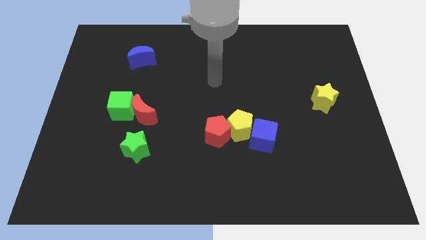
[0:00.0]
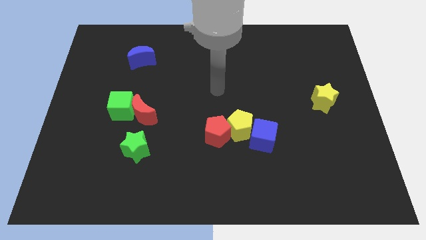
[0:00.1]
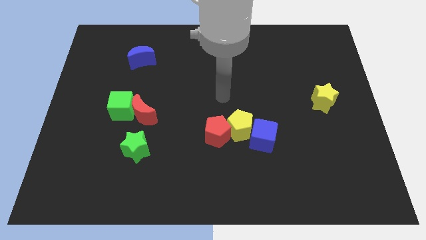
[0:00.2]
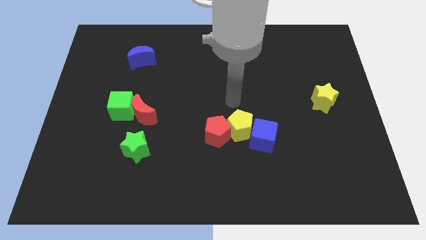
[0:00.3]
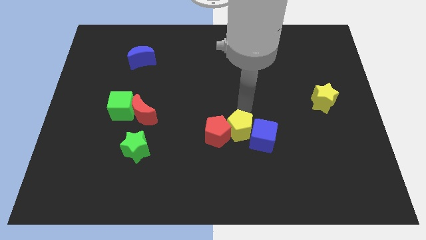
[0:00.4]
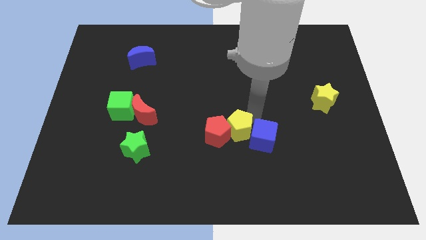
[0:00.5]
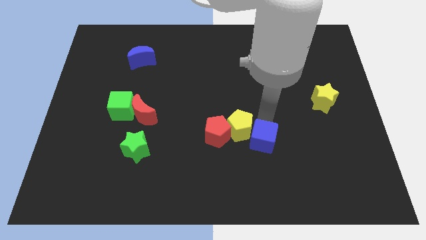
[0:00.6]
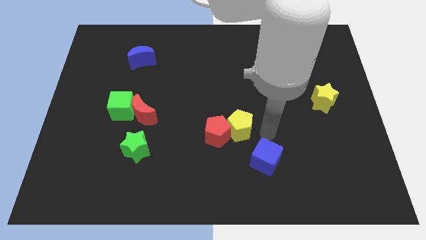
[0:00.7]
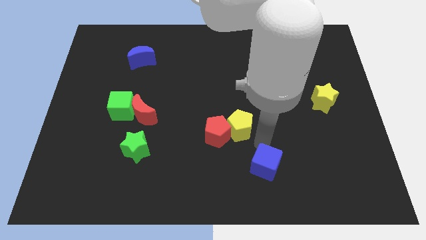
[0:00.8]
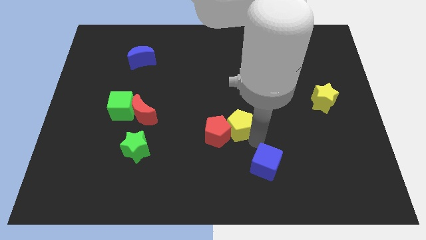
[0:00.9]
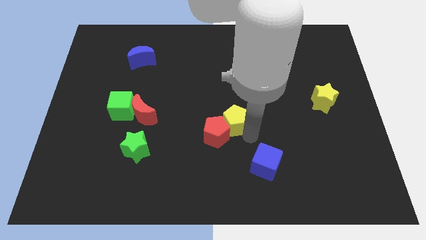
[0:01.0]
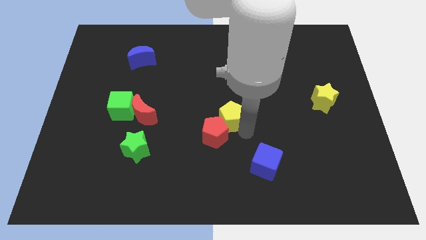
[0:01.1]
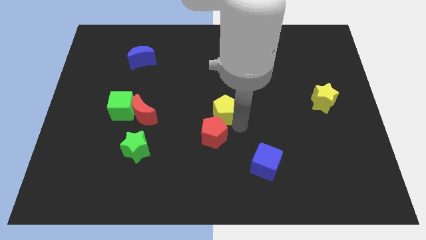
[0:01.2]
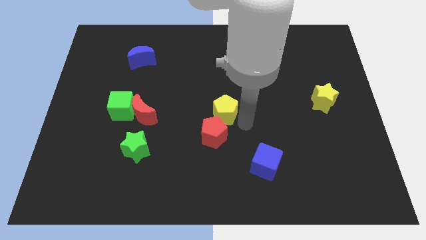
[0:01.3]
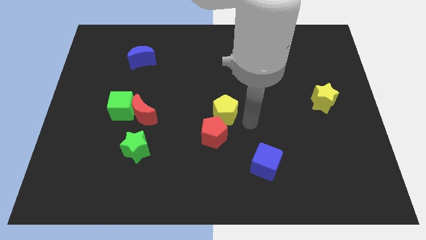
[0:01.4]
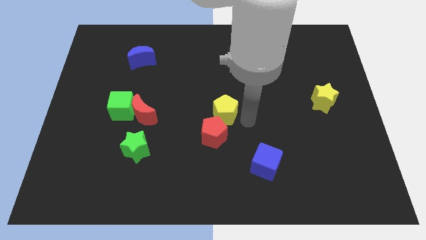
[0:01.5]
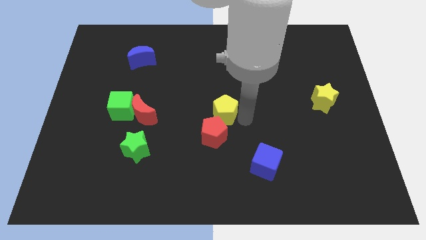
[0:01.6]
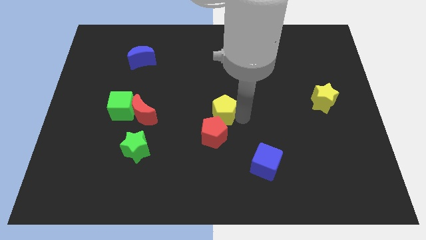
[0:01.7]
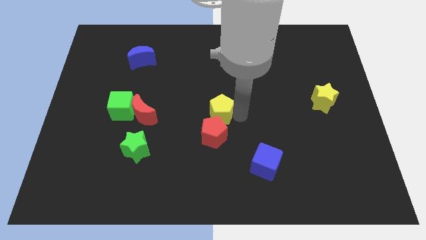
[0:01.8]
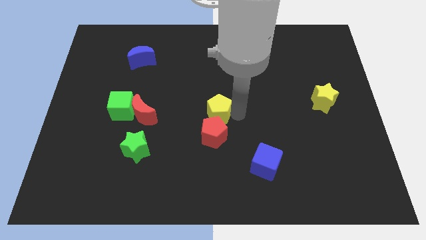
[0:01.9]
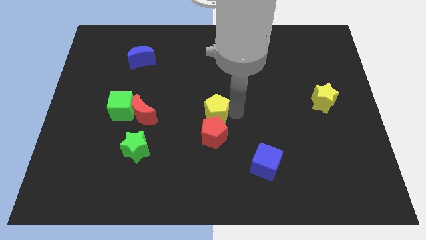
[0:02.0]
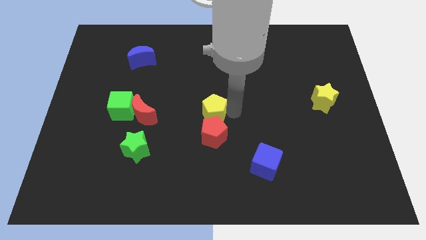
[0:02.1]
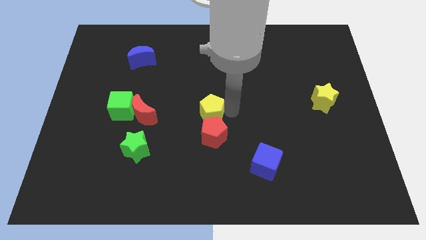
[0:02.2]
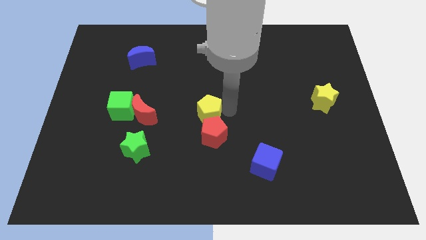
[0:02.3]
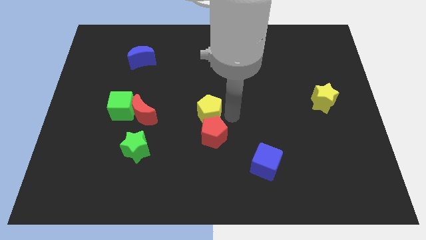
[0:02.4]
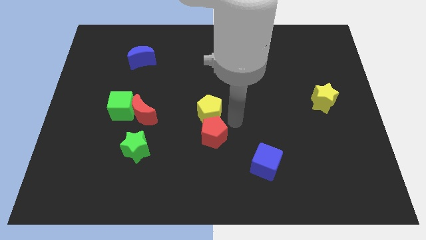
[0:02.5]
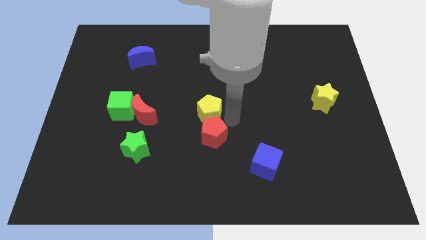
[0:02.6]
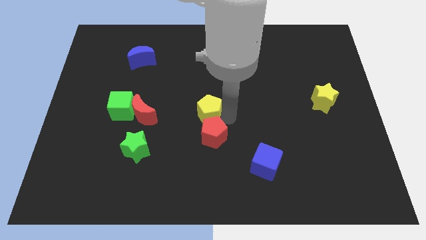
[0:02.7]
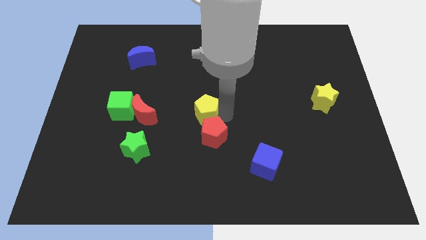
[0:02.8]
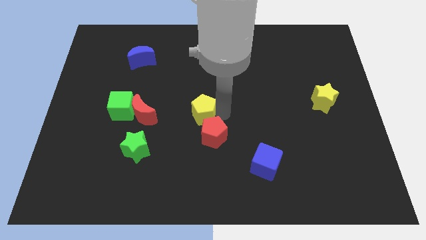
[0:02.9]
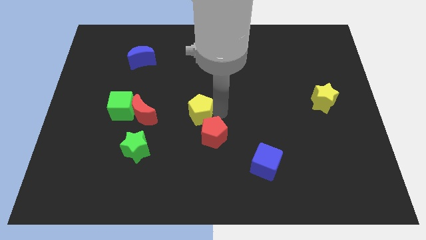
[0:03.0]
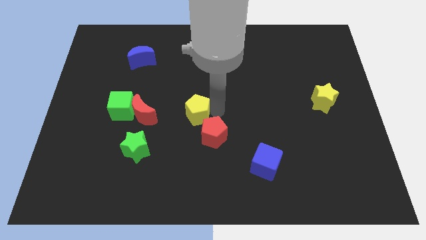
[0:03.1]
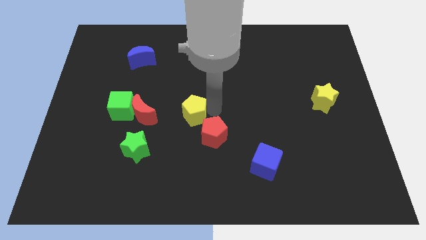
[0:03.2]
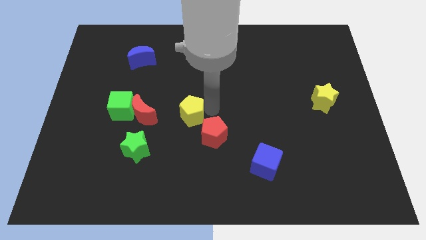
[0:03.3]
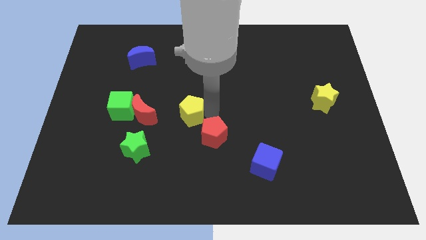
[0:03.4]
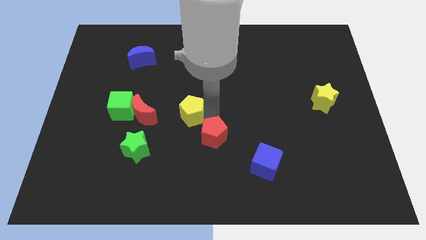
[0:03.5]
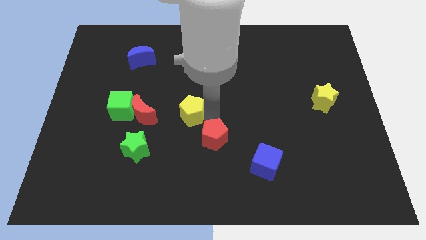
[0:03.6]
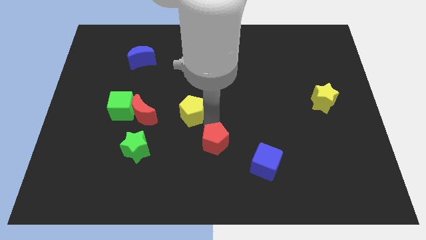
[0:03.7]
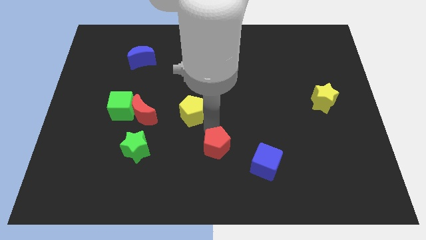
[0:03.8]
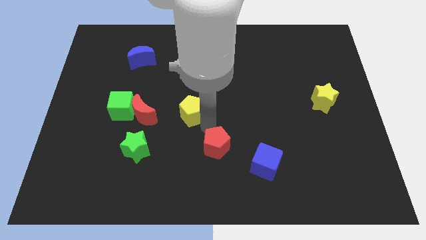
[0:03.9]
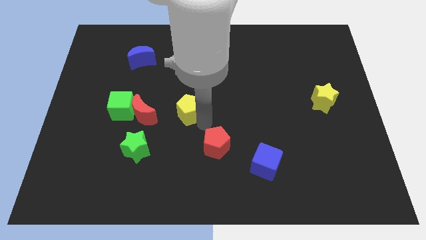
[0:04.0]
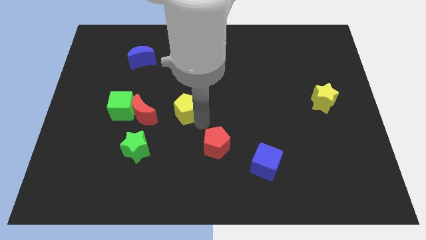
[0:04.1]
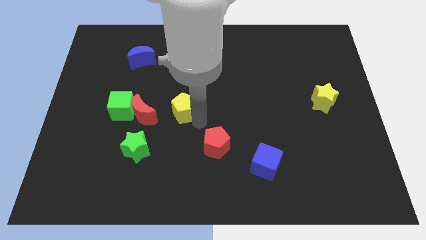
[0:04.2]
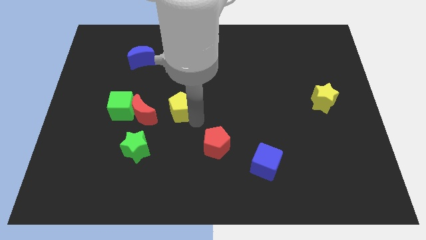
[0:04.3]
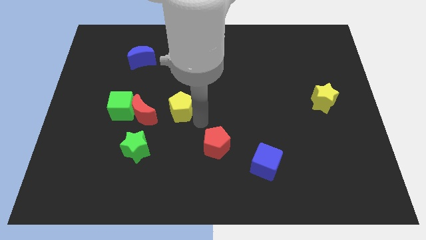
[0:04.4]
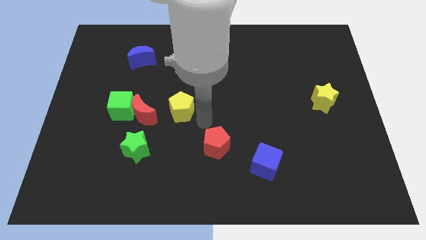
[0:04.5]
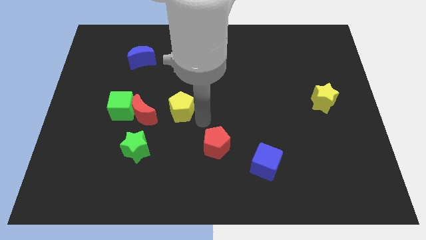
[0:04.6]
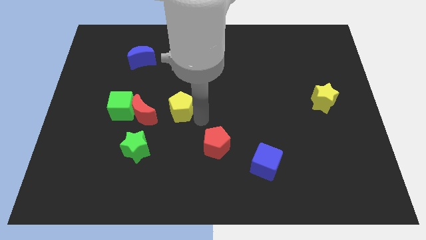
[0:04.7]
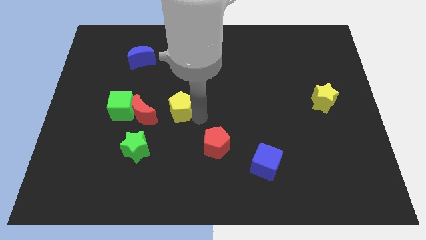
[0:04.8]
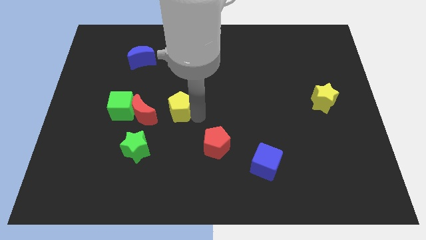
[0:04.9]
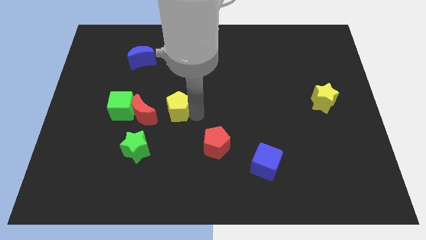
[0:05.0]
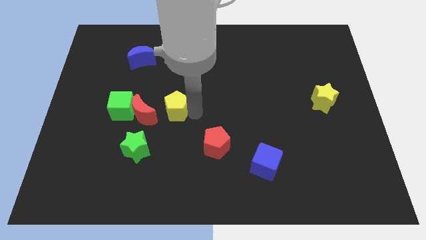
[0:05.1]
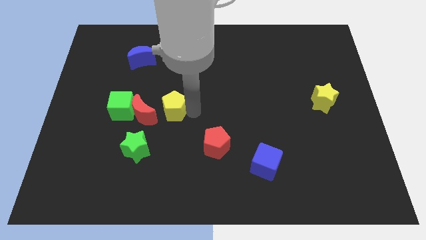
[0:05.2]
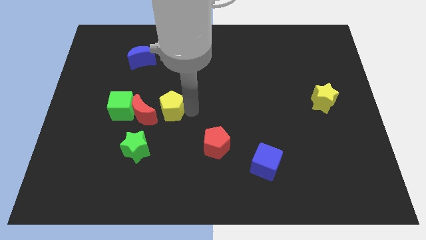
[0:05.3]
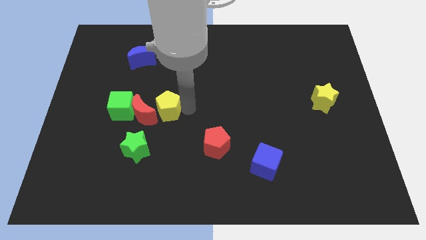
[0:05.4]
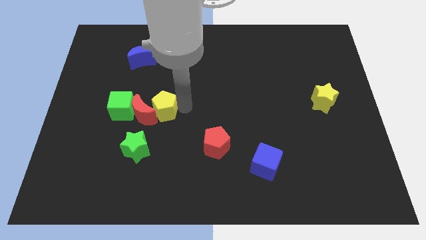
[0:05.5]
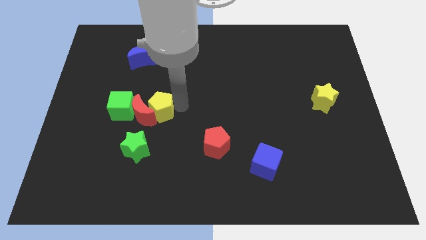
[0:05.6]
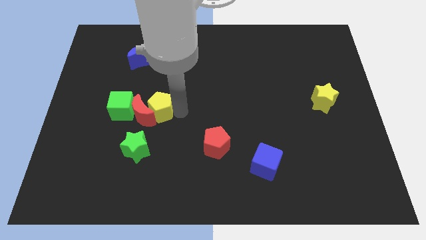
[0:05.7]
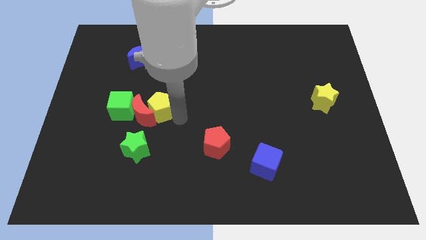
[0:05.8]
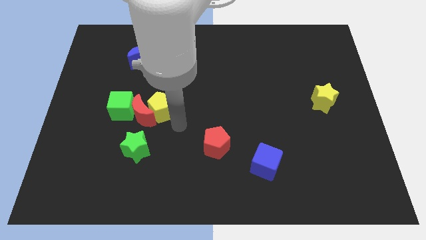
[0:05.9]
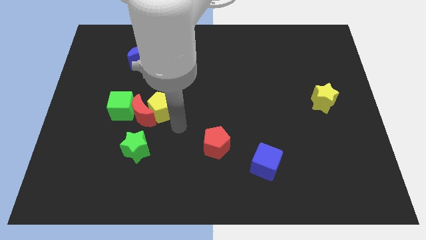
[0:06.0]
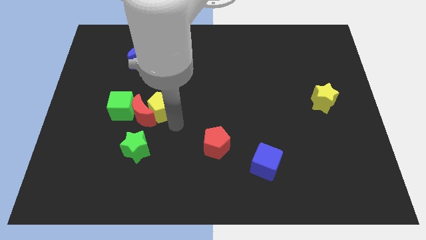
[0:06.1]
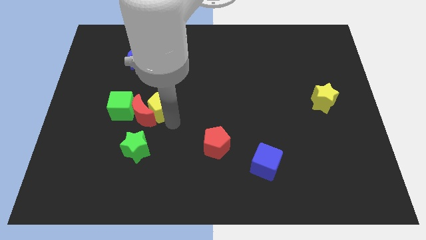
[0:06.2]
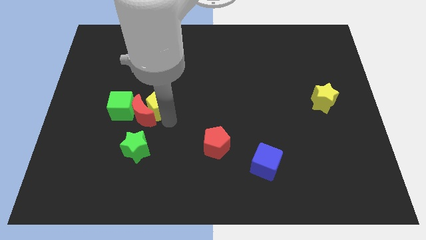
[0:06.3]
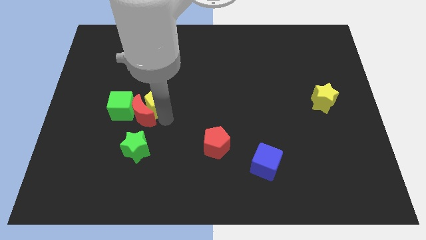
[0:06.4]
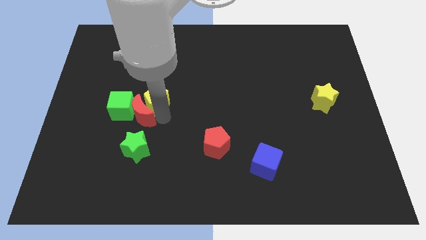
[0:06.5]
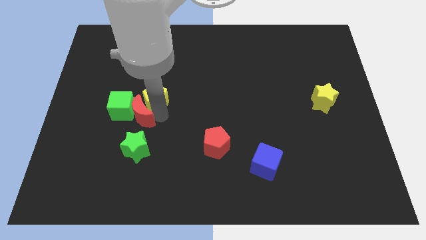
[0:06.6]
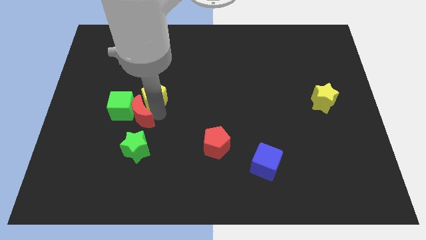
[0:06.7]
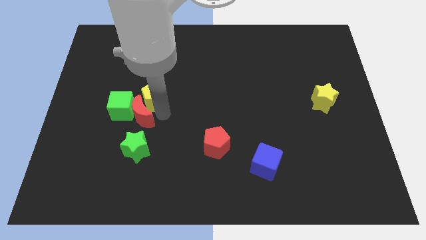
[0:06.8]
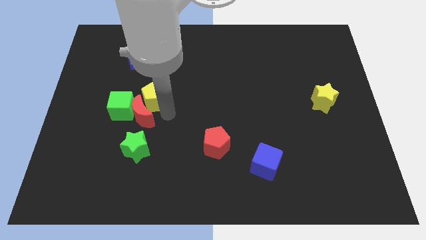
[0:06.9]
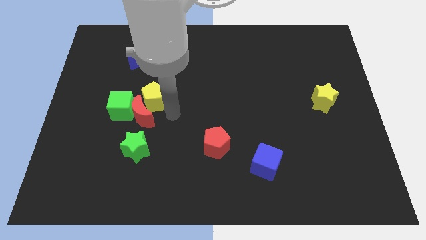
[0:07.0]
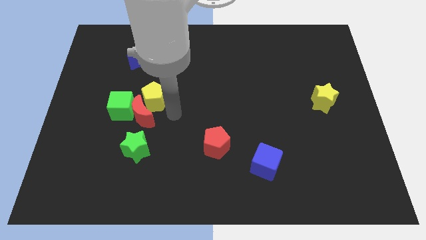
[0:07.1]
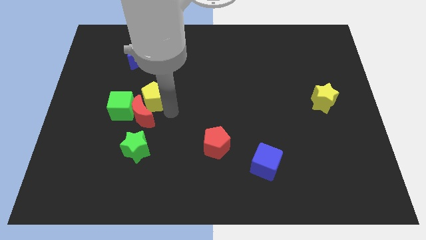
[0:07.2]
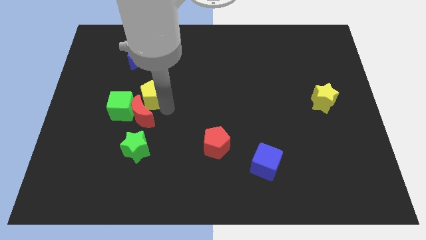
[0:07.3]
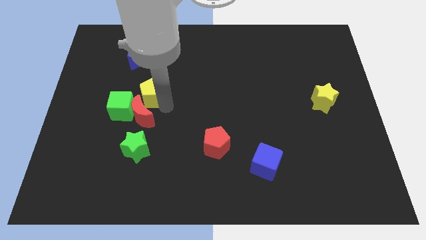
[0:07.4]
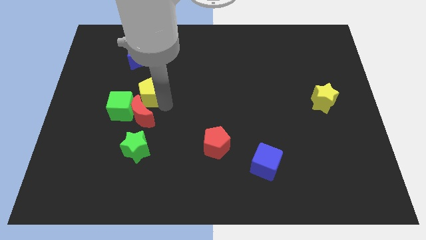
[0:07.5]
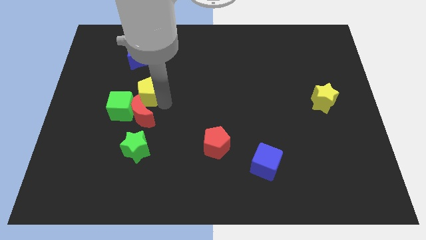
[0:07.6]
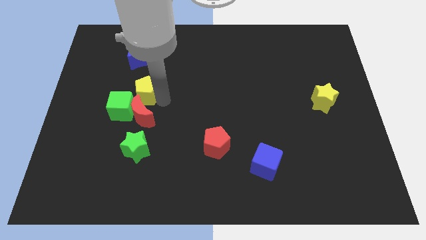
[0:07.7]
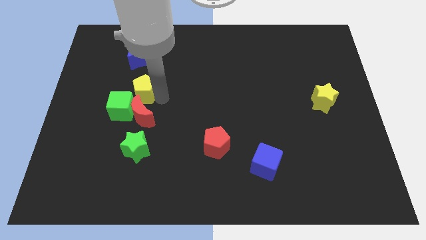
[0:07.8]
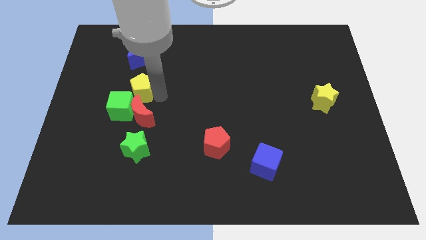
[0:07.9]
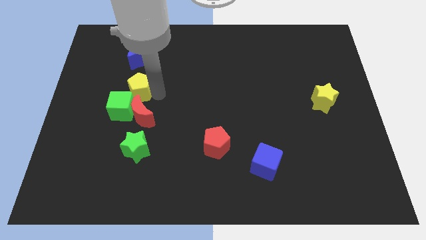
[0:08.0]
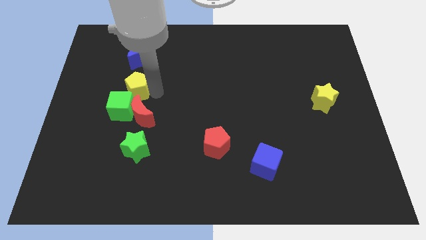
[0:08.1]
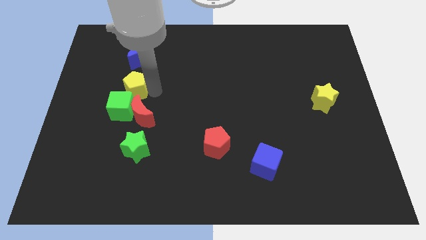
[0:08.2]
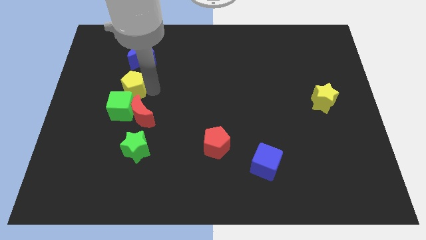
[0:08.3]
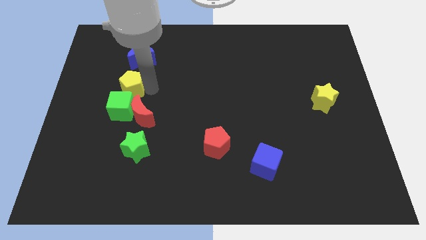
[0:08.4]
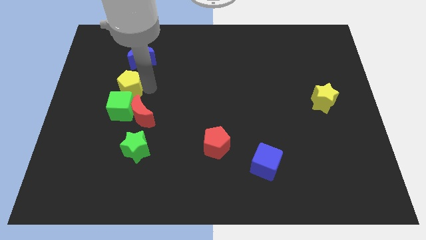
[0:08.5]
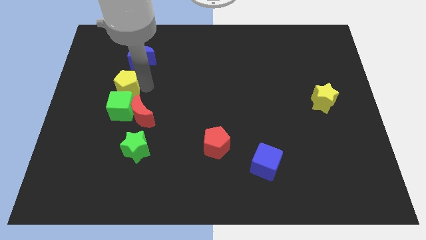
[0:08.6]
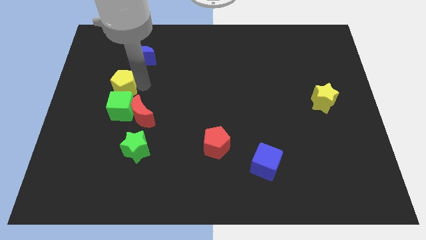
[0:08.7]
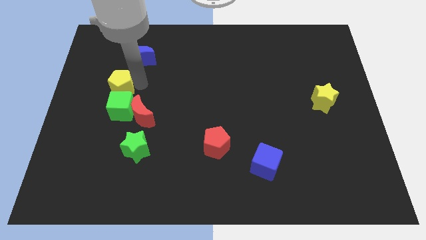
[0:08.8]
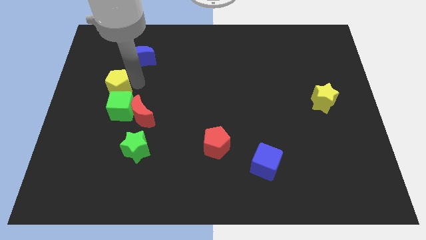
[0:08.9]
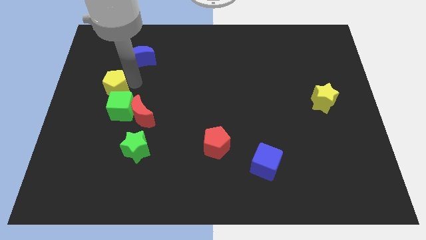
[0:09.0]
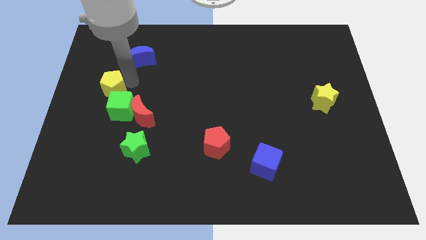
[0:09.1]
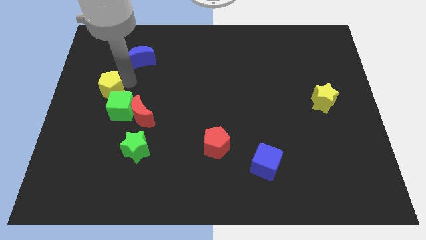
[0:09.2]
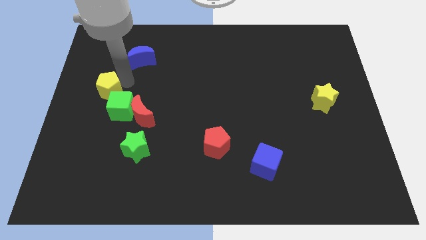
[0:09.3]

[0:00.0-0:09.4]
slide the yellow pentagon to the left side of the board
